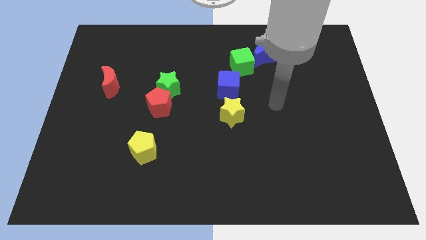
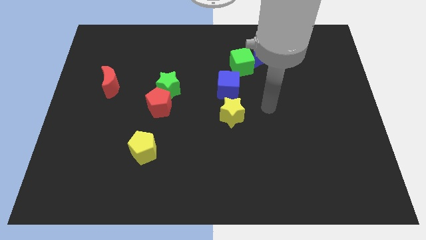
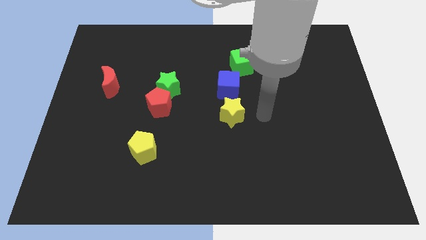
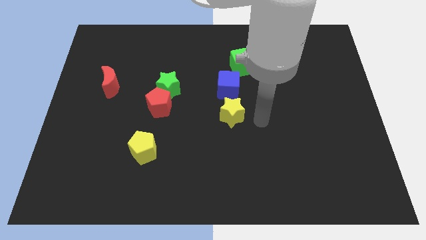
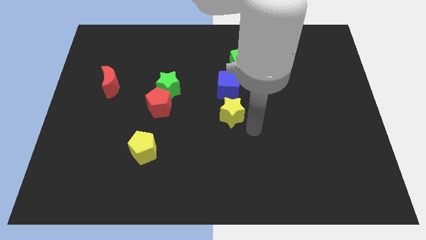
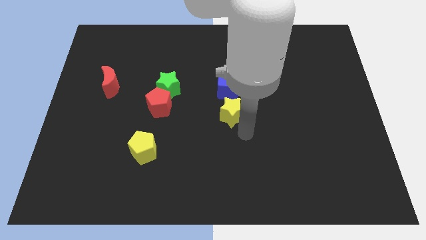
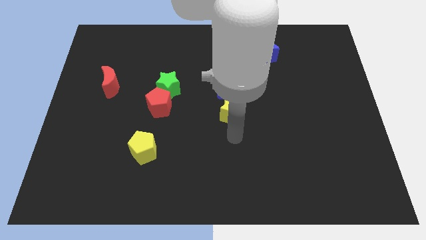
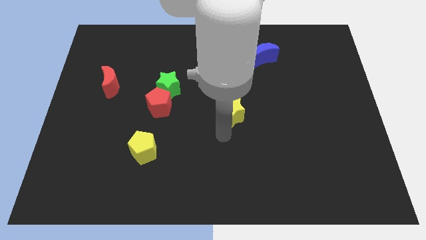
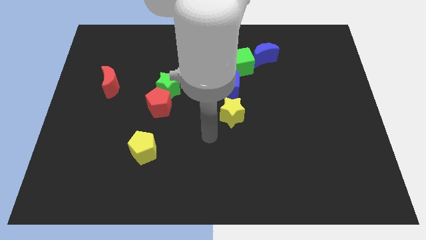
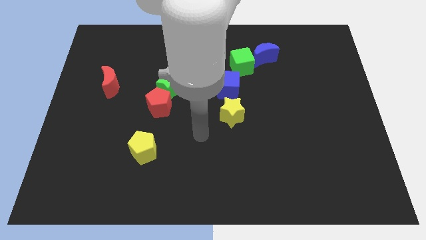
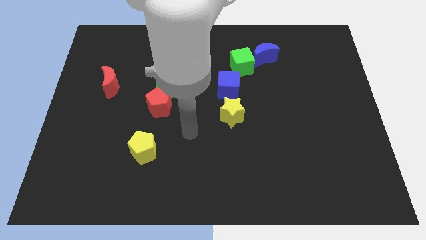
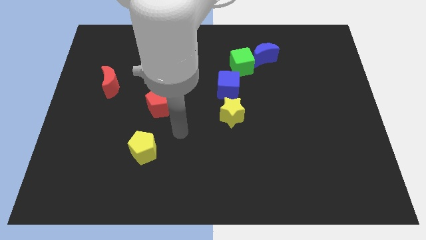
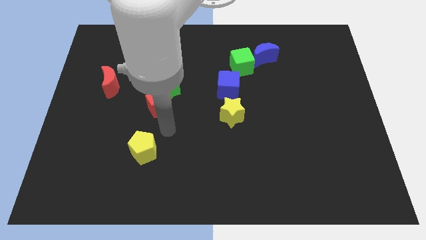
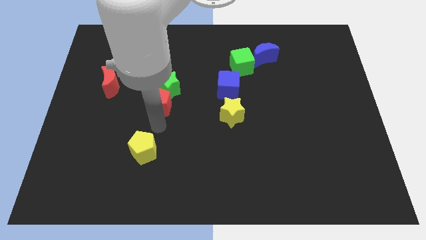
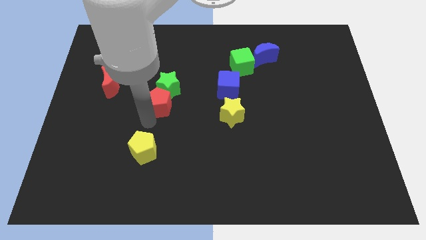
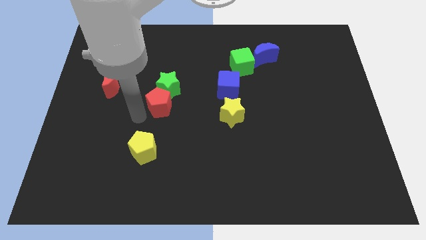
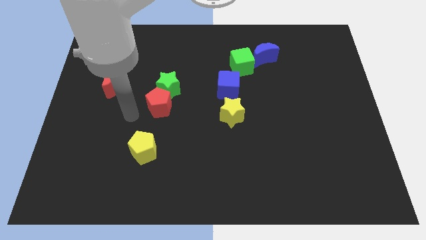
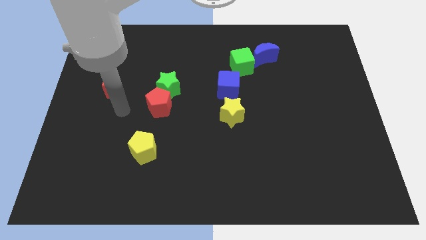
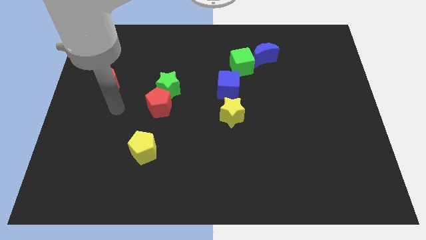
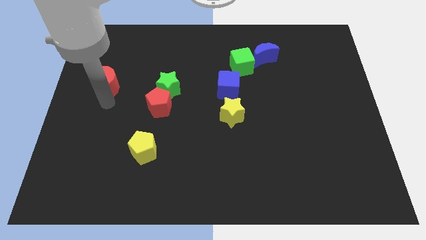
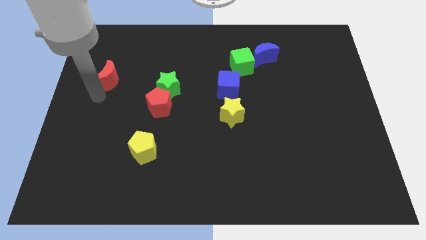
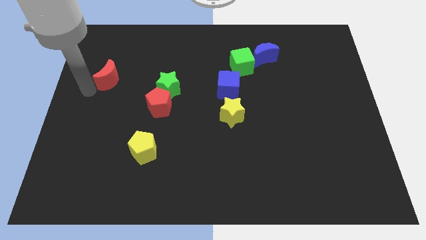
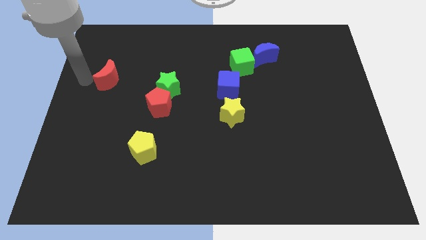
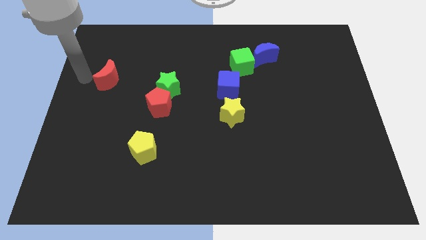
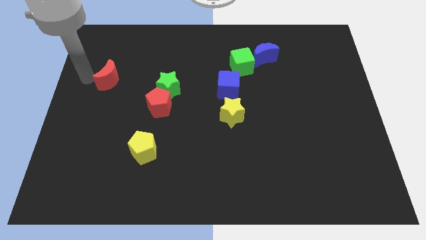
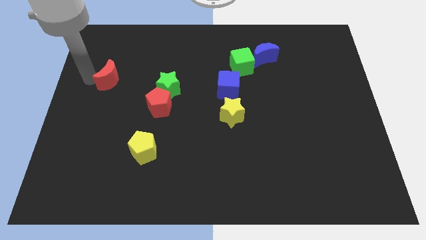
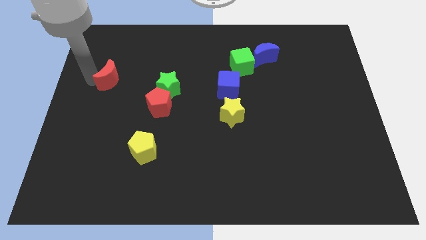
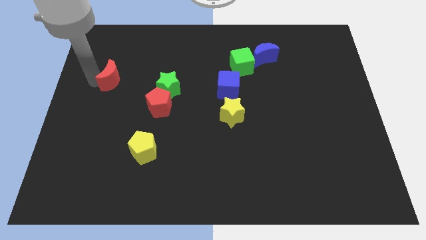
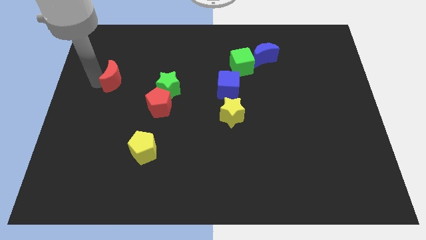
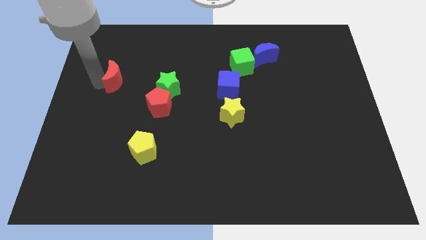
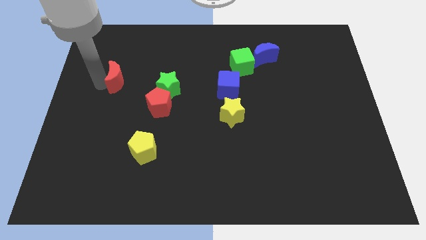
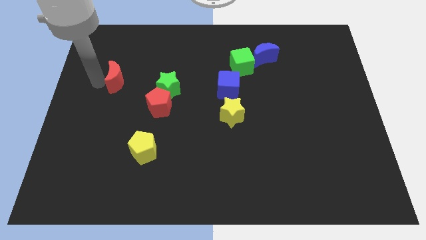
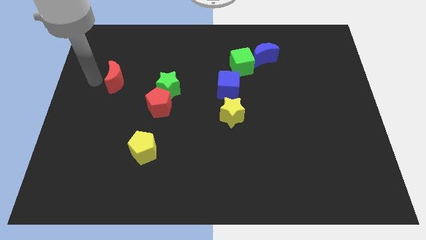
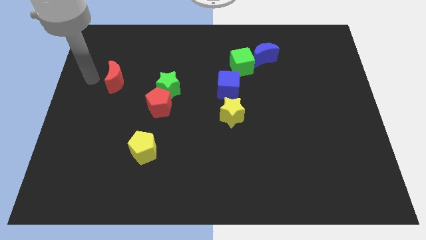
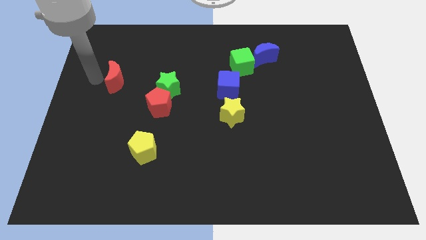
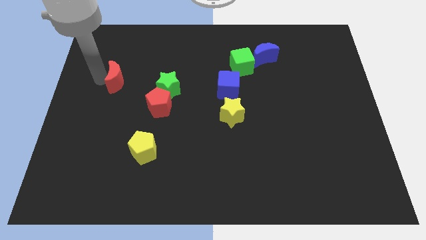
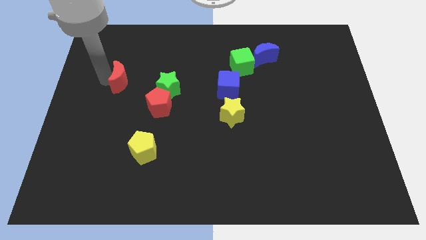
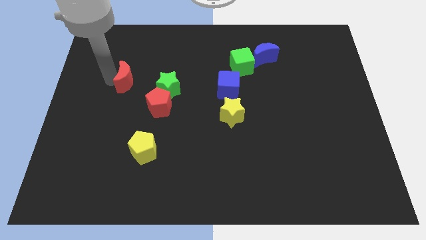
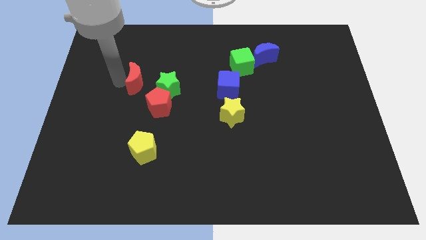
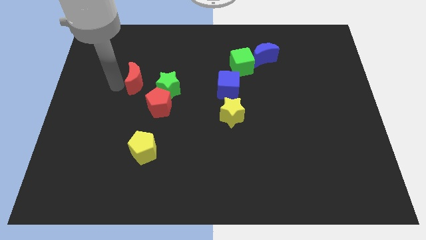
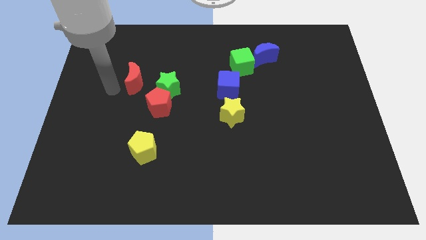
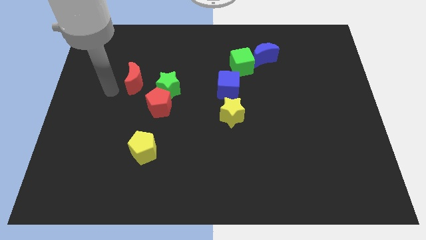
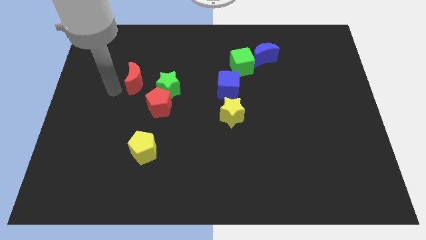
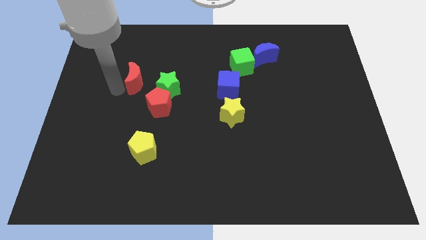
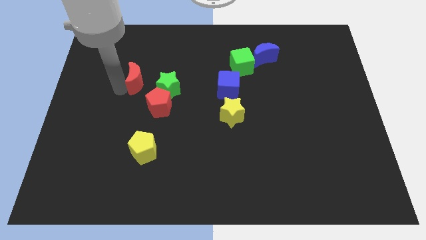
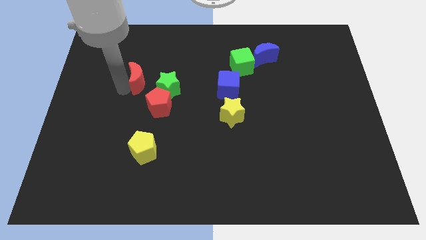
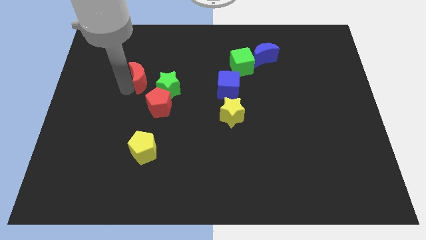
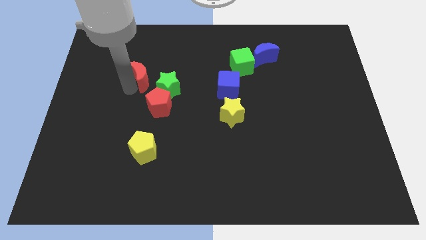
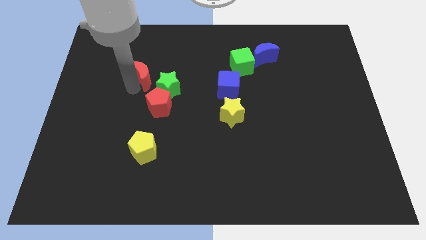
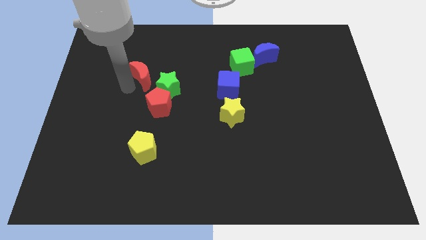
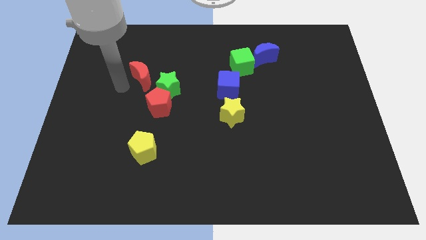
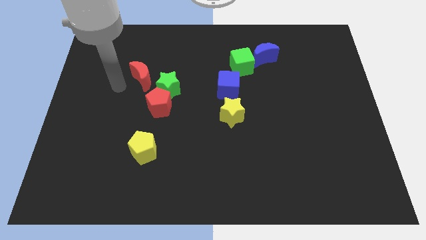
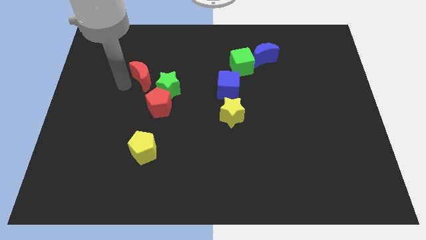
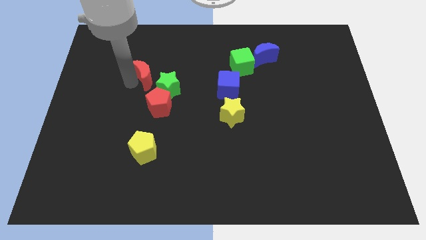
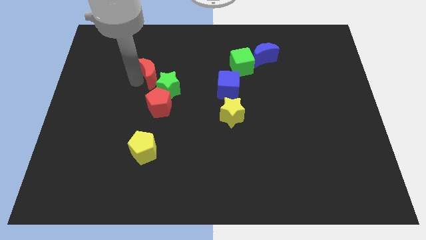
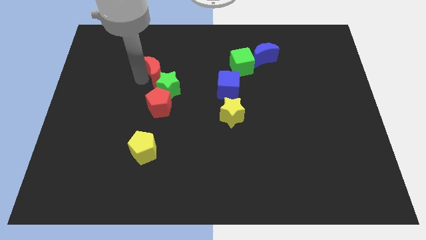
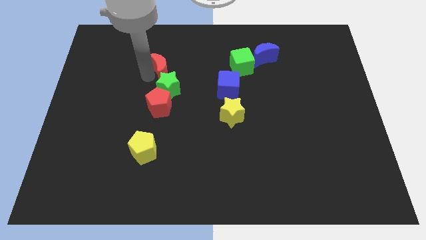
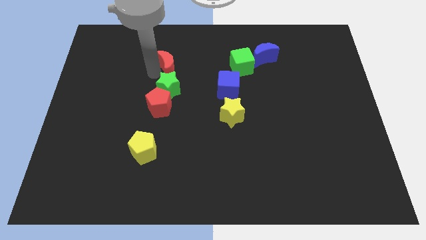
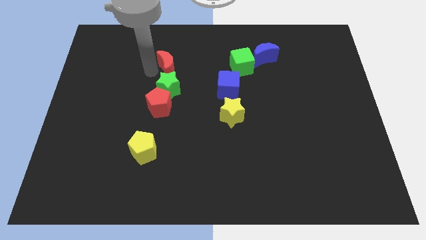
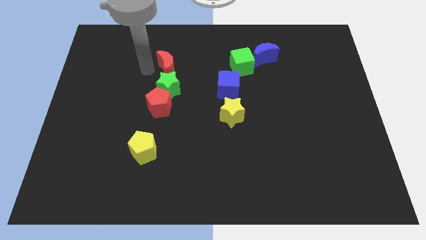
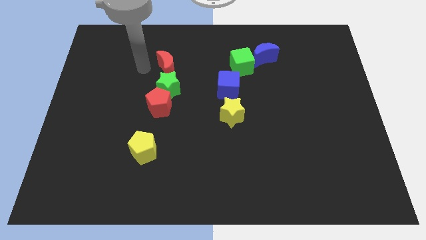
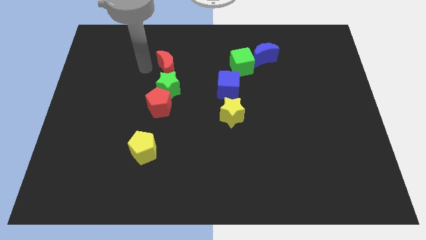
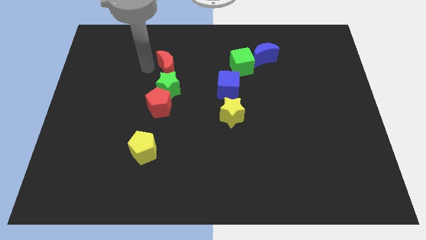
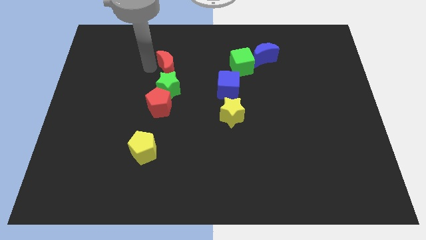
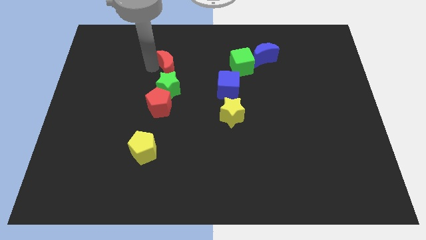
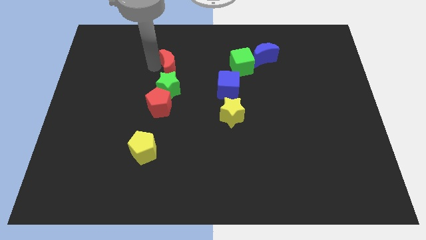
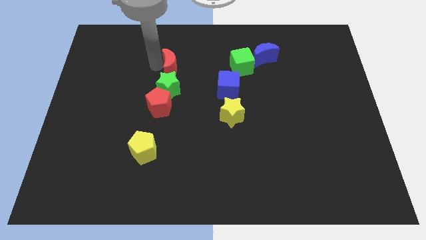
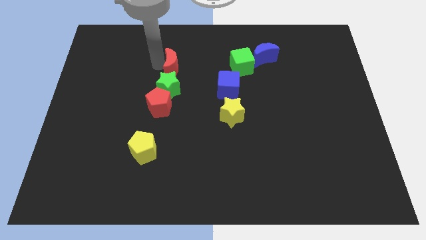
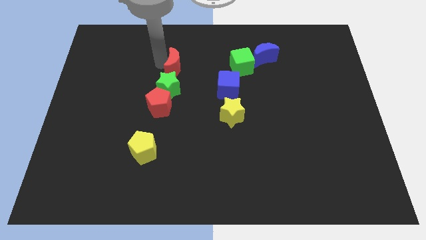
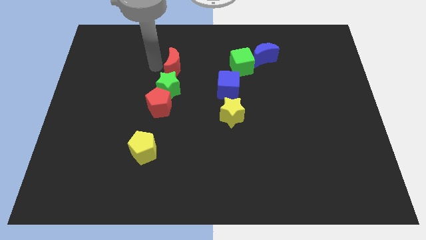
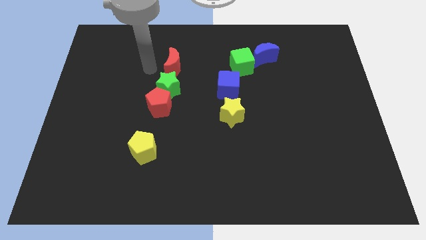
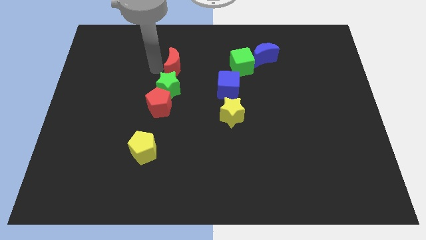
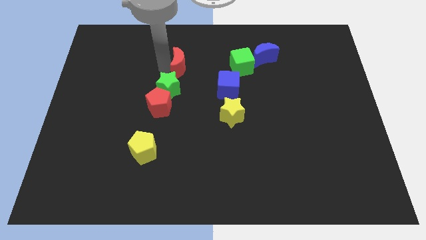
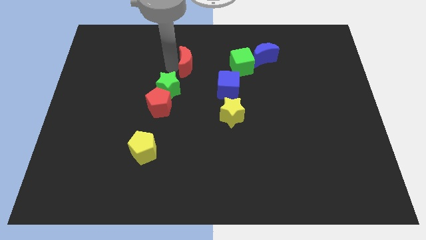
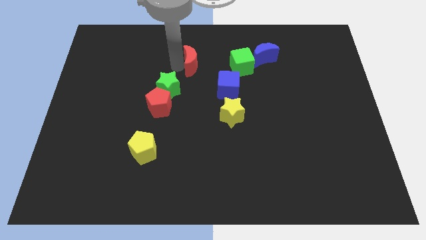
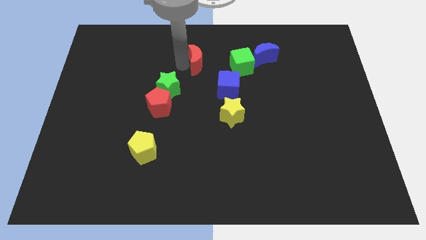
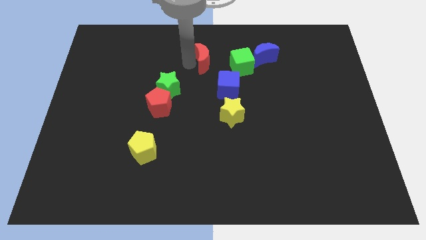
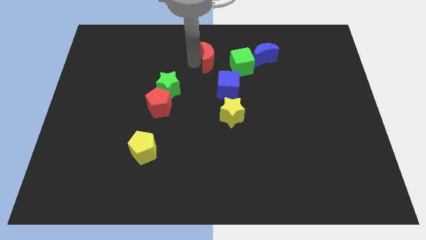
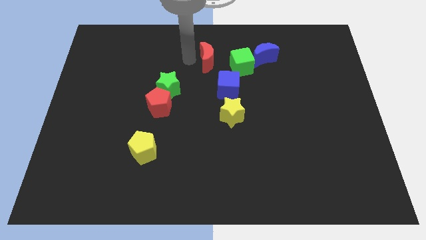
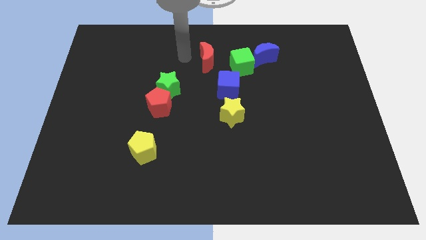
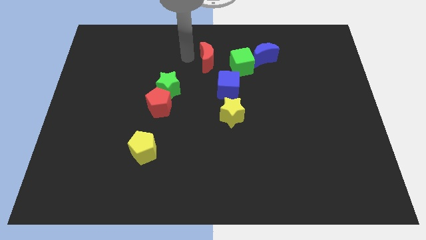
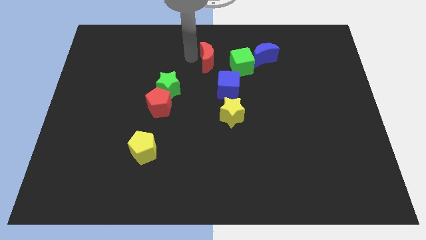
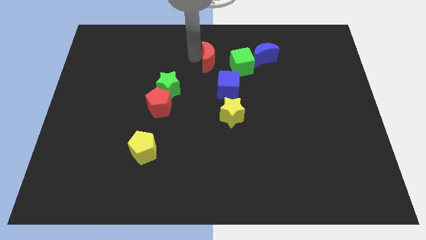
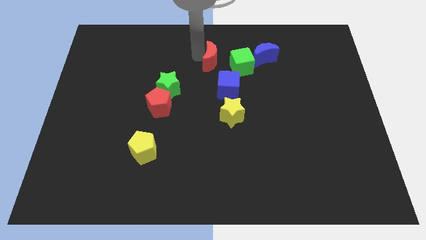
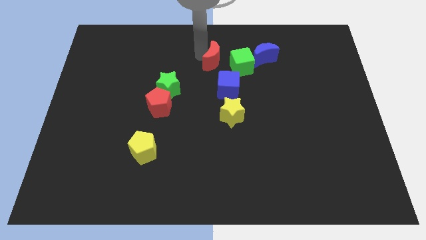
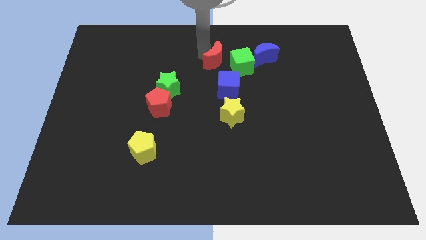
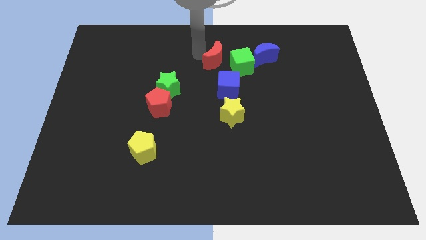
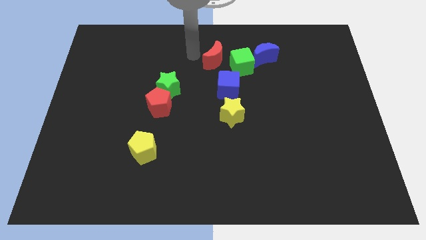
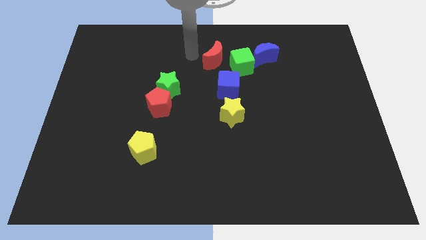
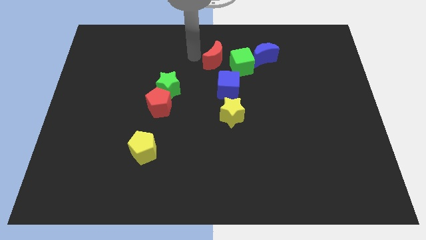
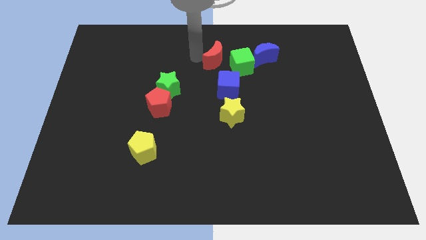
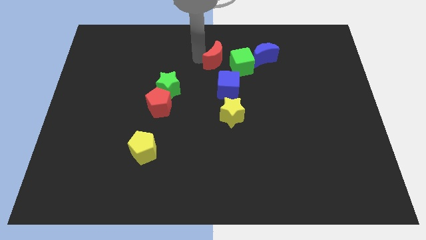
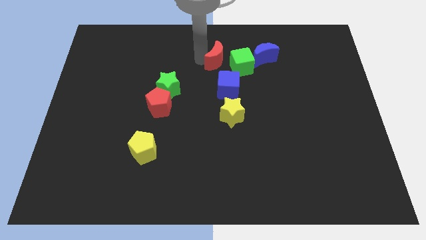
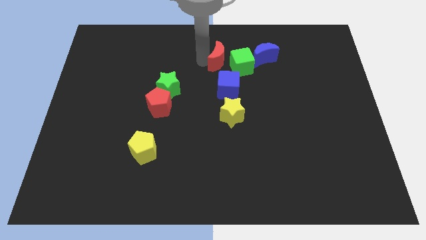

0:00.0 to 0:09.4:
slide the red moon to the green cube
